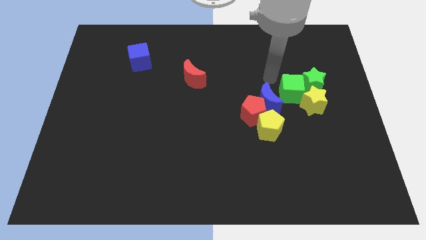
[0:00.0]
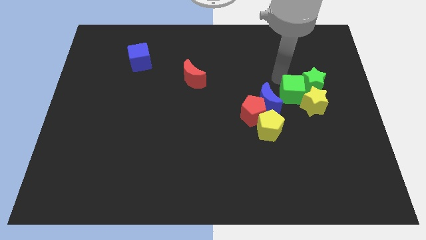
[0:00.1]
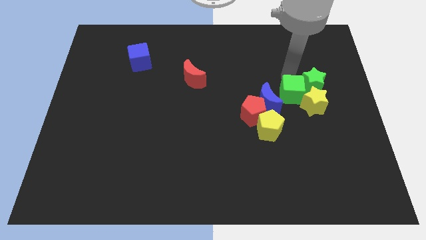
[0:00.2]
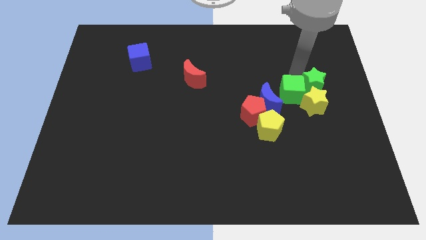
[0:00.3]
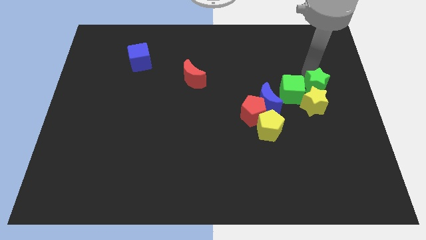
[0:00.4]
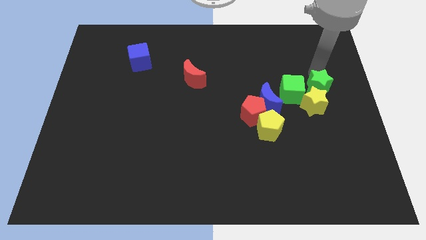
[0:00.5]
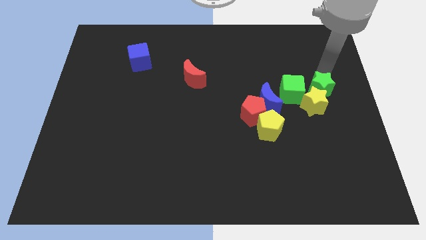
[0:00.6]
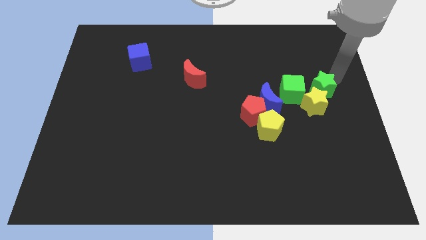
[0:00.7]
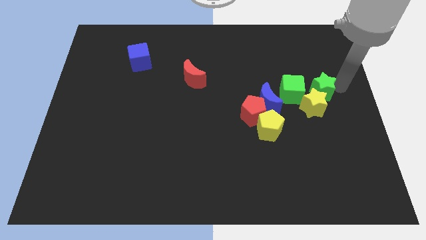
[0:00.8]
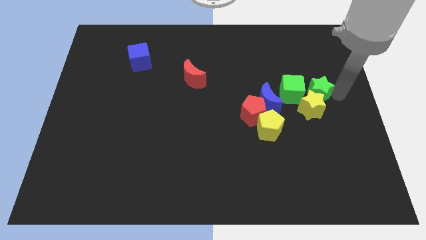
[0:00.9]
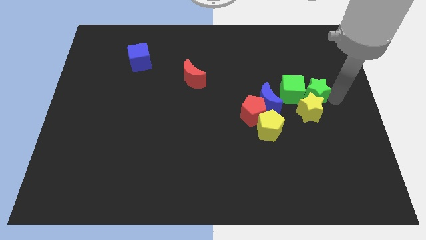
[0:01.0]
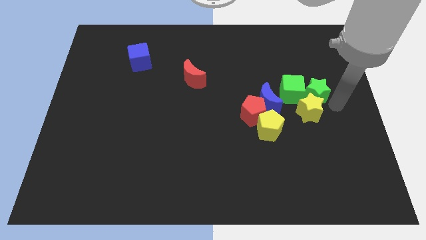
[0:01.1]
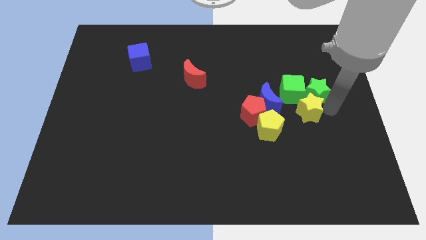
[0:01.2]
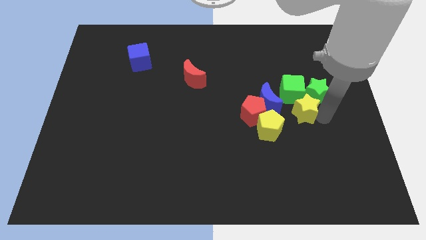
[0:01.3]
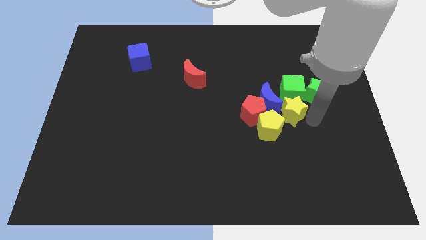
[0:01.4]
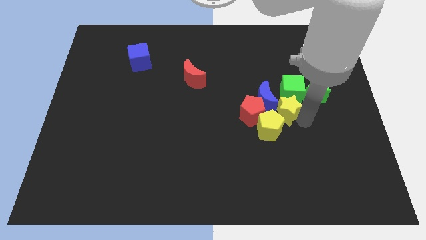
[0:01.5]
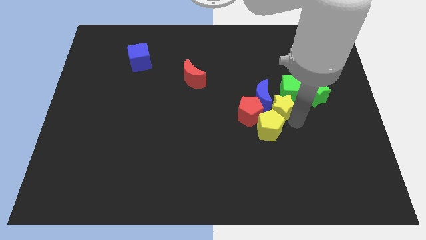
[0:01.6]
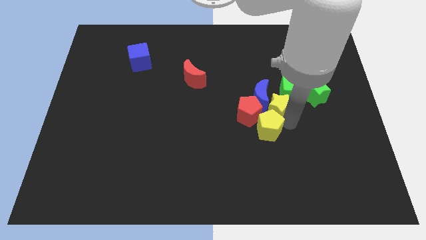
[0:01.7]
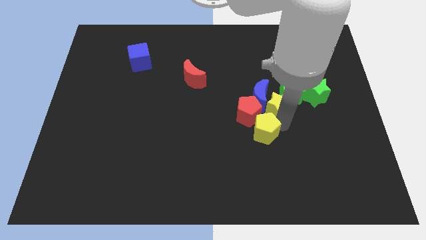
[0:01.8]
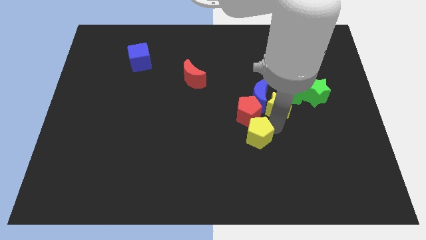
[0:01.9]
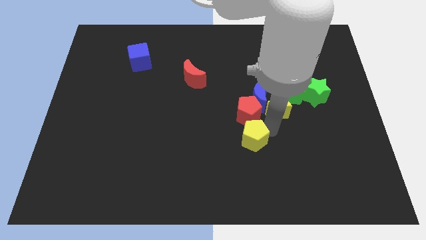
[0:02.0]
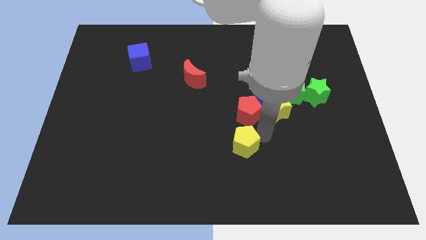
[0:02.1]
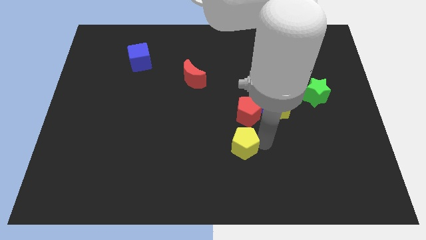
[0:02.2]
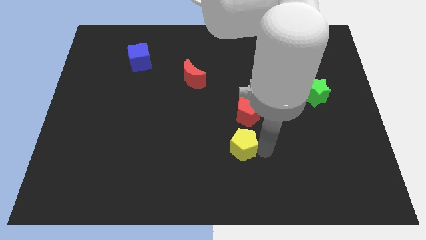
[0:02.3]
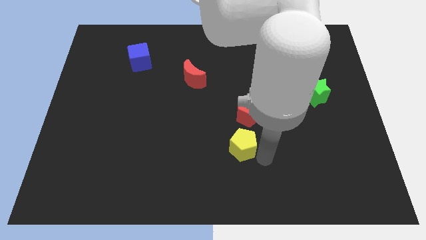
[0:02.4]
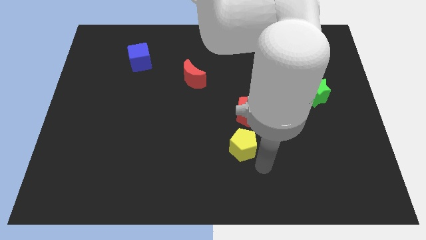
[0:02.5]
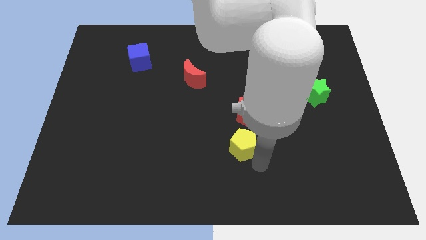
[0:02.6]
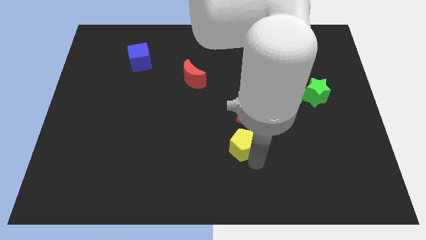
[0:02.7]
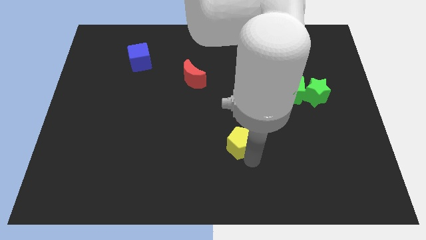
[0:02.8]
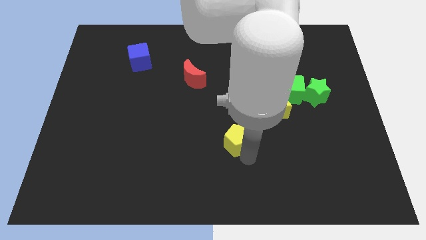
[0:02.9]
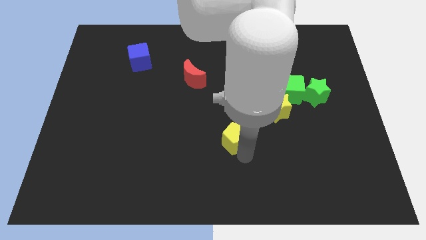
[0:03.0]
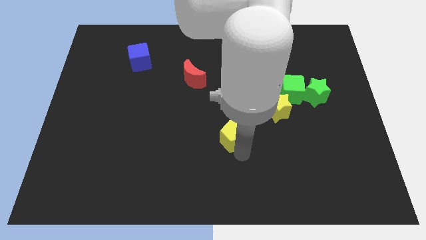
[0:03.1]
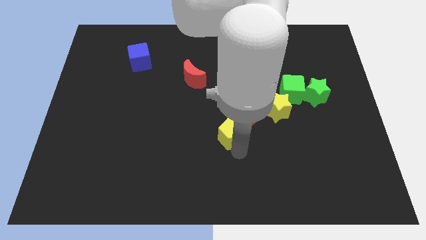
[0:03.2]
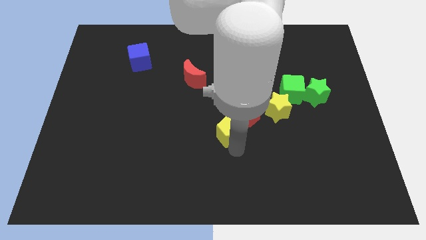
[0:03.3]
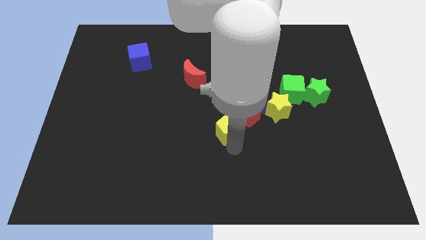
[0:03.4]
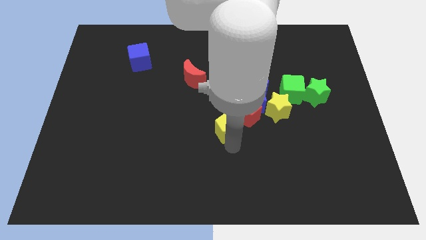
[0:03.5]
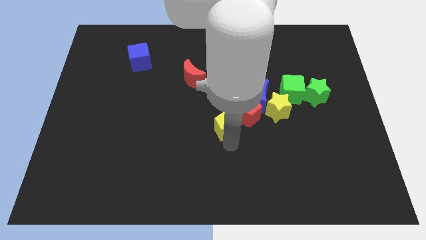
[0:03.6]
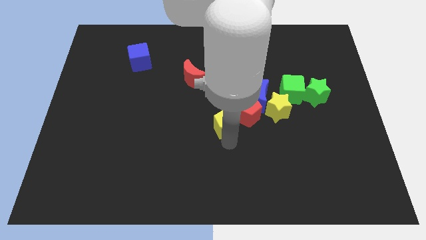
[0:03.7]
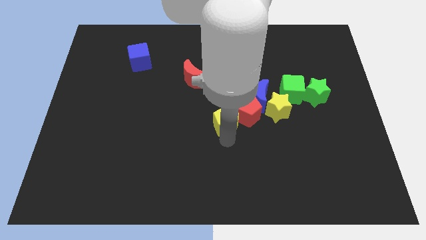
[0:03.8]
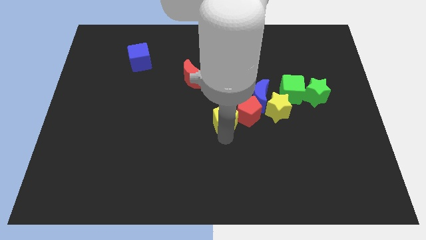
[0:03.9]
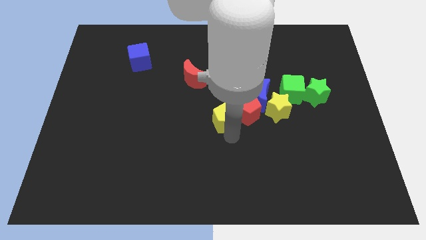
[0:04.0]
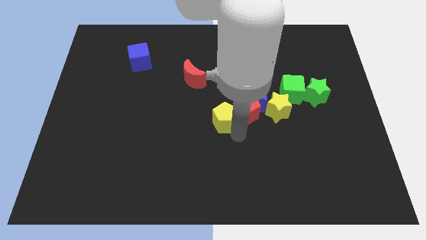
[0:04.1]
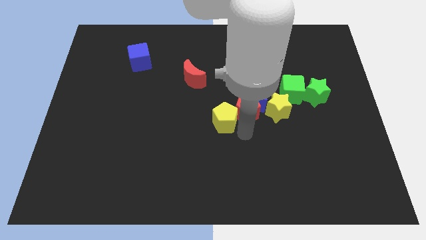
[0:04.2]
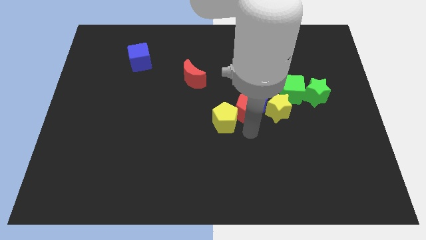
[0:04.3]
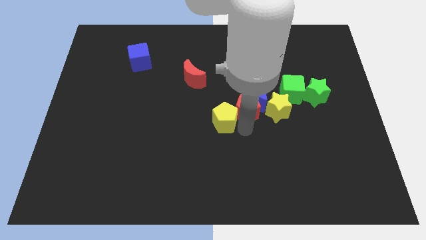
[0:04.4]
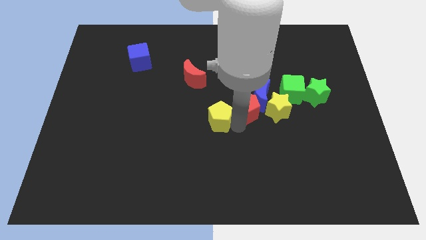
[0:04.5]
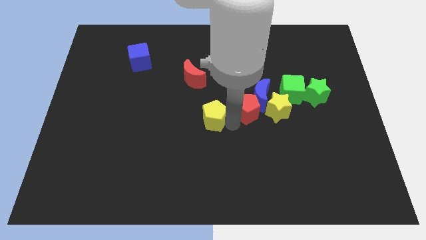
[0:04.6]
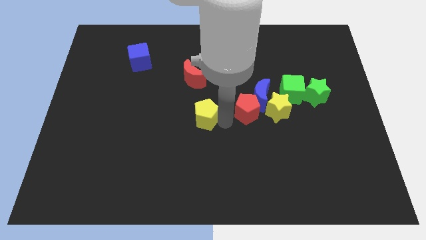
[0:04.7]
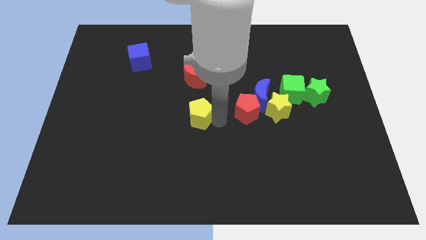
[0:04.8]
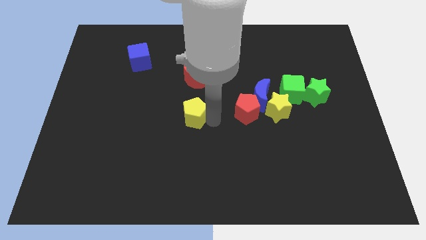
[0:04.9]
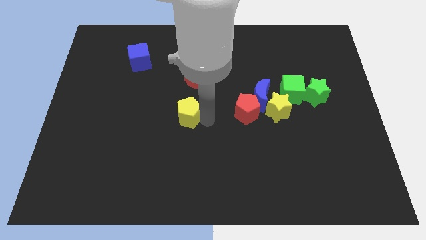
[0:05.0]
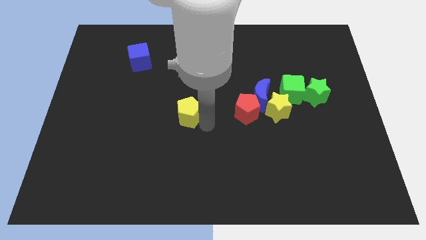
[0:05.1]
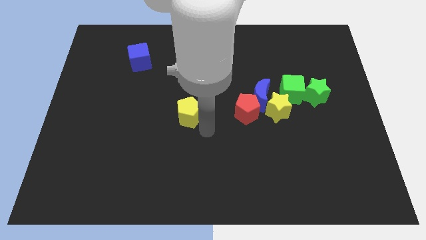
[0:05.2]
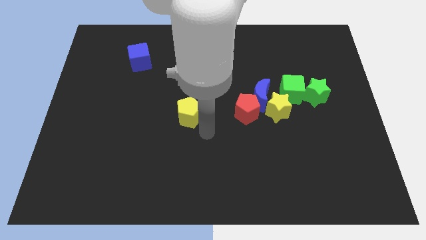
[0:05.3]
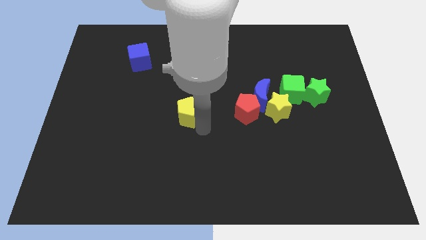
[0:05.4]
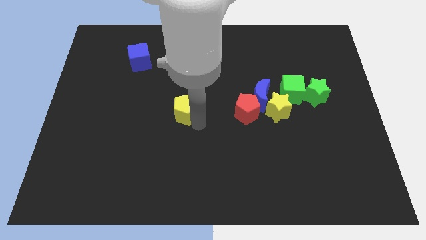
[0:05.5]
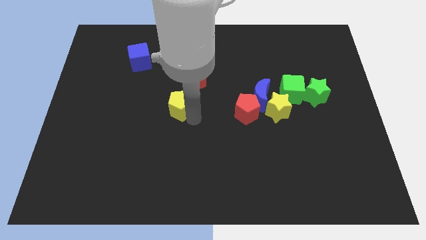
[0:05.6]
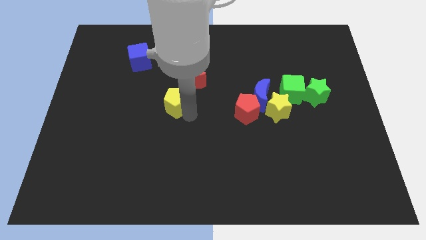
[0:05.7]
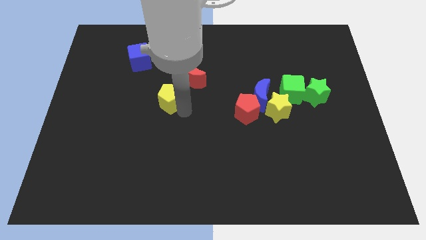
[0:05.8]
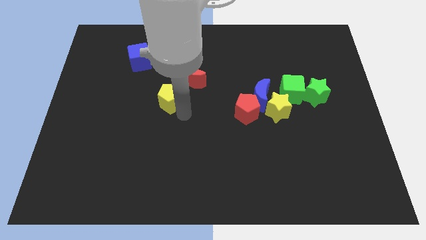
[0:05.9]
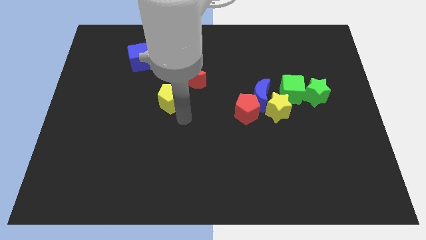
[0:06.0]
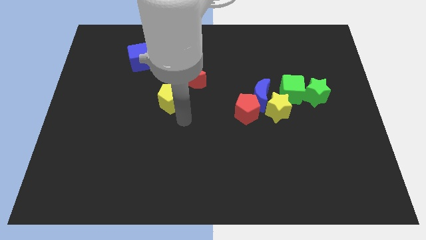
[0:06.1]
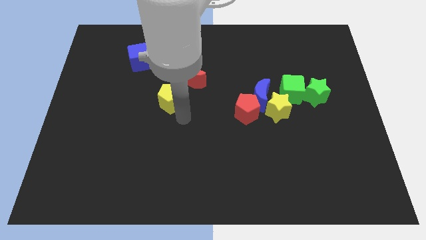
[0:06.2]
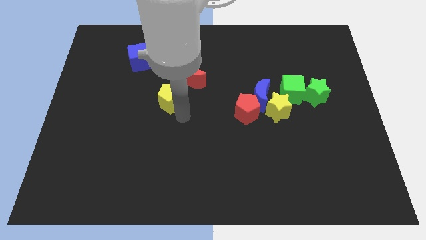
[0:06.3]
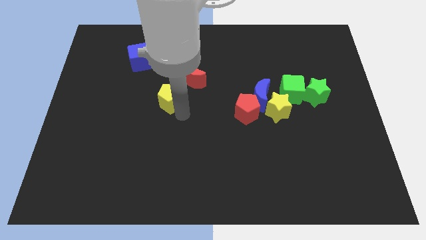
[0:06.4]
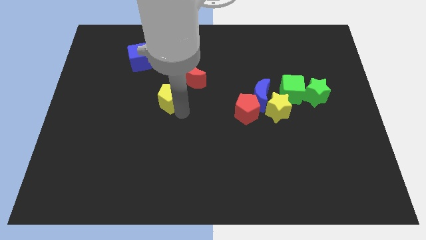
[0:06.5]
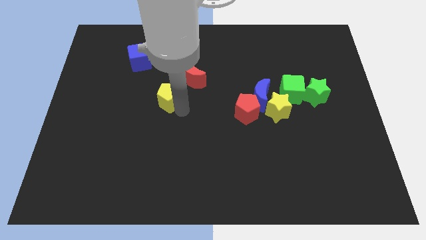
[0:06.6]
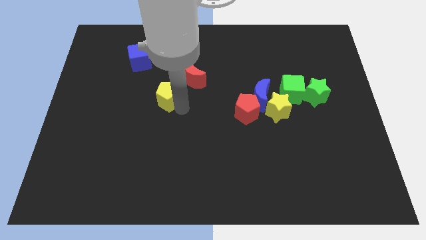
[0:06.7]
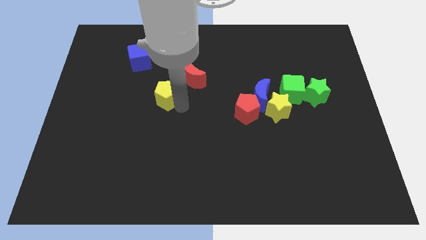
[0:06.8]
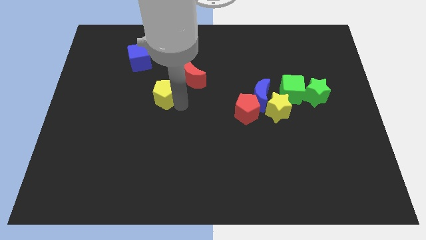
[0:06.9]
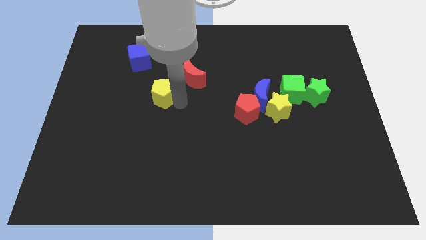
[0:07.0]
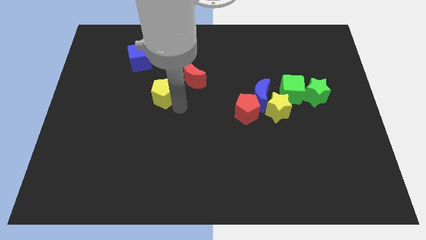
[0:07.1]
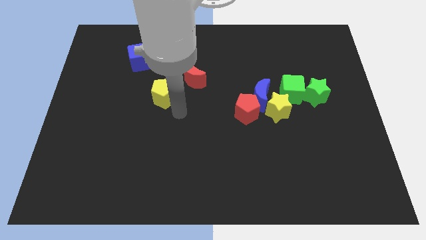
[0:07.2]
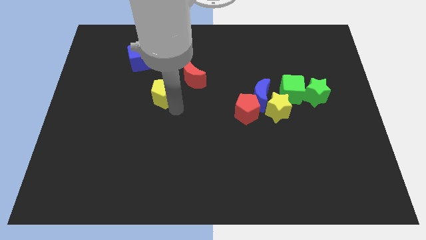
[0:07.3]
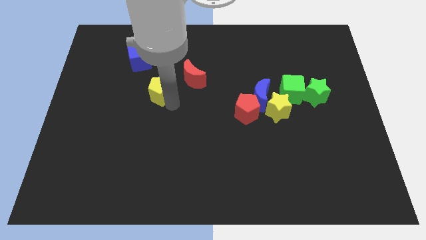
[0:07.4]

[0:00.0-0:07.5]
slide the yellow pentagon to the left of the red moon
